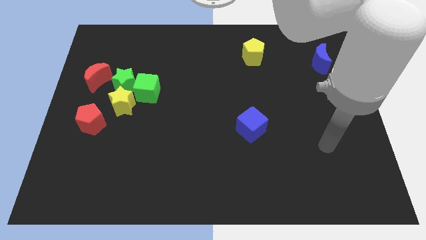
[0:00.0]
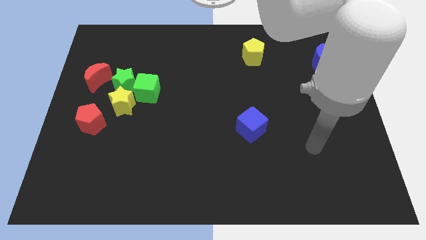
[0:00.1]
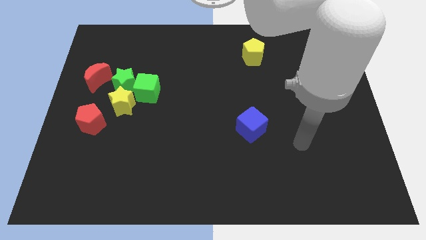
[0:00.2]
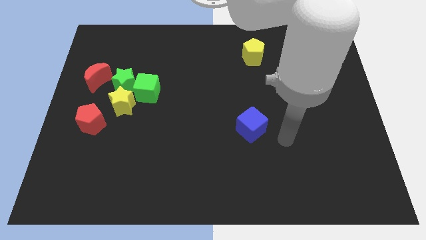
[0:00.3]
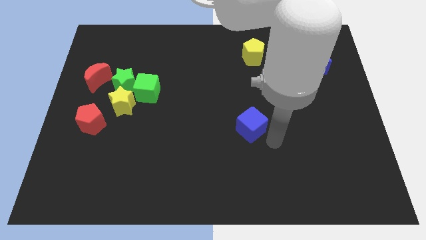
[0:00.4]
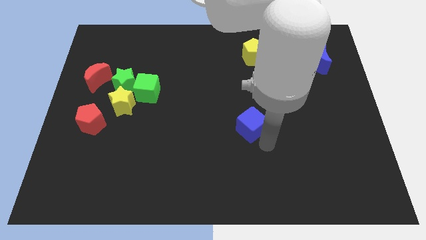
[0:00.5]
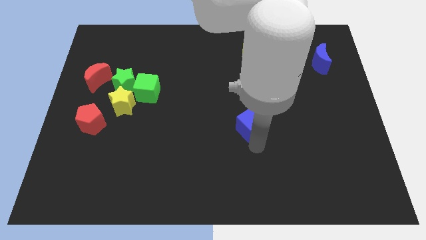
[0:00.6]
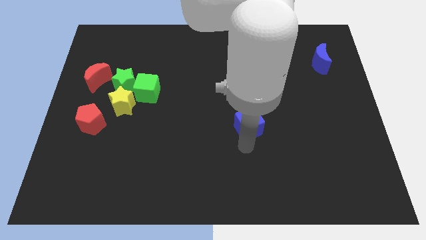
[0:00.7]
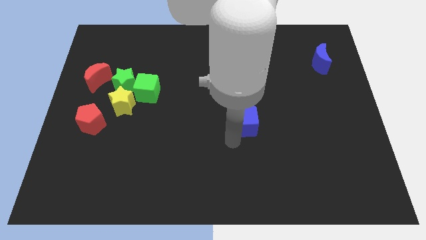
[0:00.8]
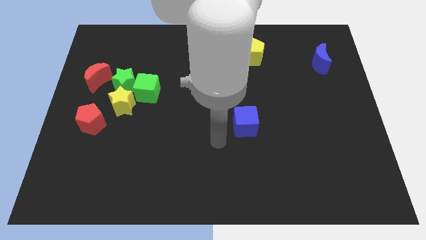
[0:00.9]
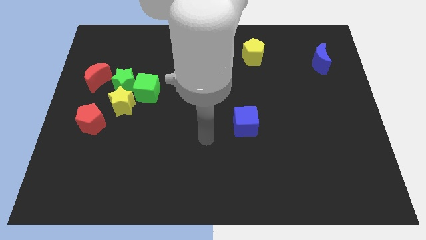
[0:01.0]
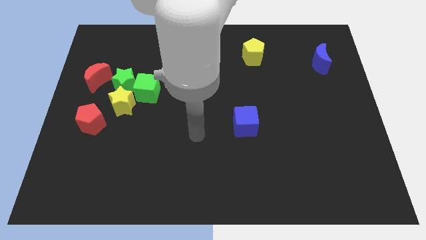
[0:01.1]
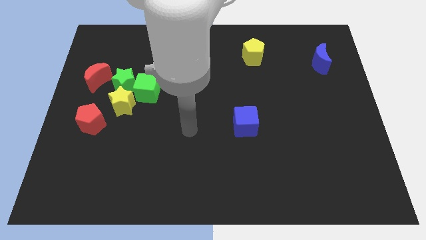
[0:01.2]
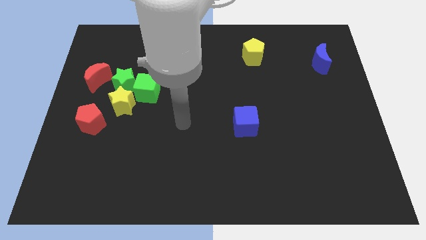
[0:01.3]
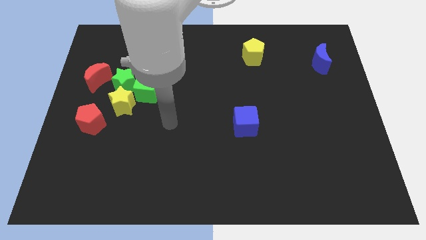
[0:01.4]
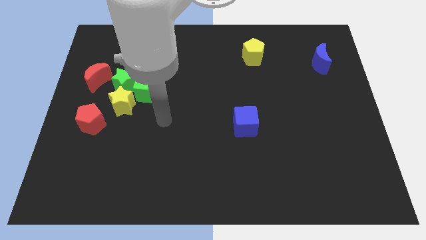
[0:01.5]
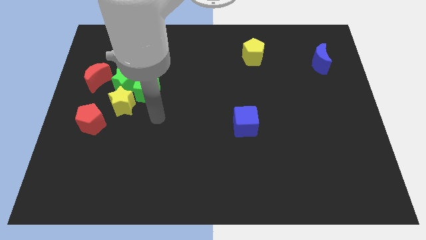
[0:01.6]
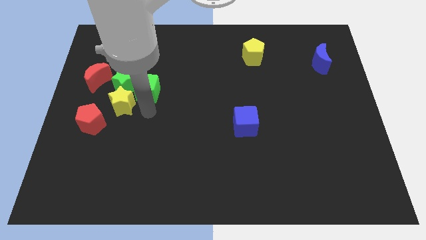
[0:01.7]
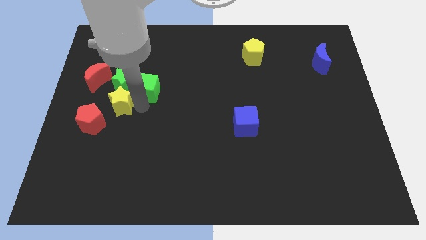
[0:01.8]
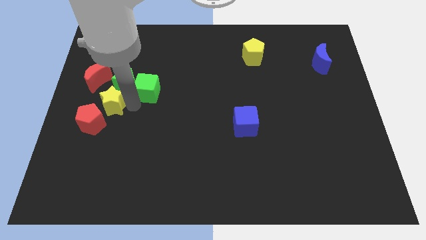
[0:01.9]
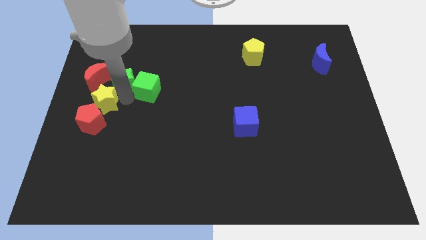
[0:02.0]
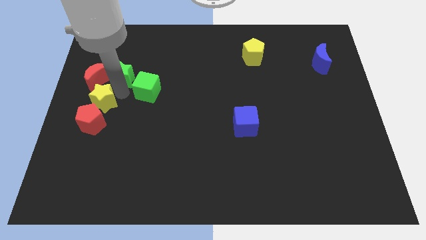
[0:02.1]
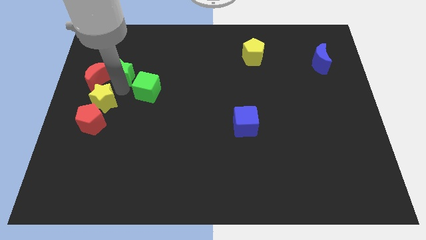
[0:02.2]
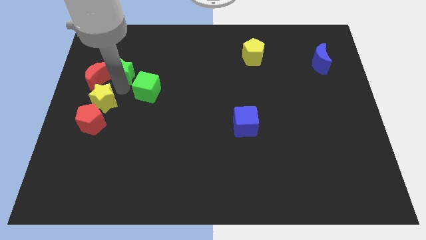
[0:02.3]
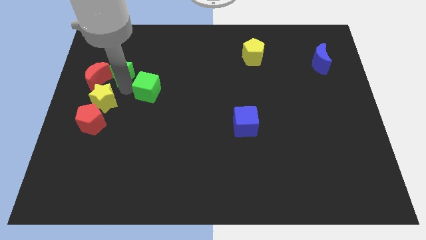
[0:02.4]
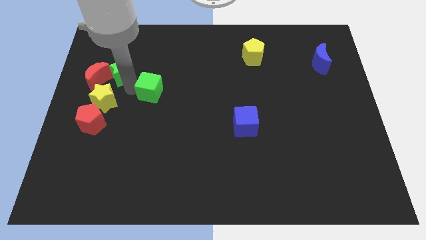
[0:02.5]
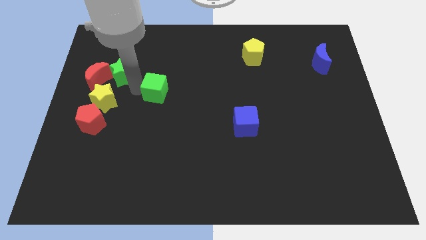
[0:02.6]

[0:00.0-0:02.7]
move the green cube away from the green star and yellow star

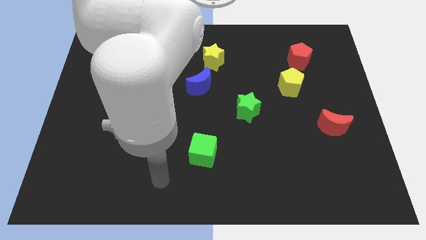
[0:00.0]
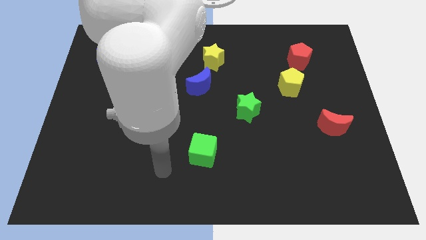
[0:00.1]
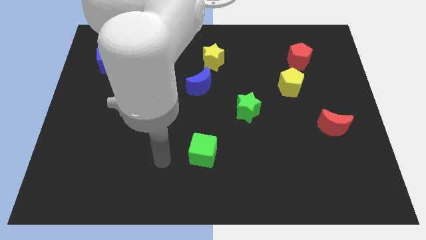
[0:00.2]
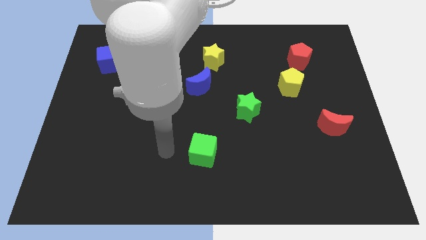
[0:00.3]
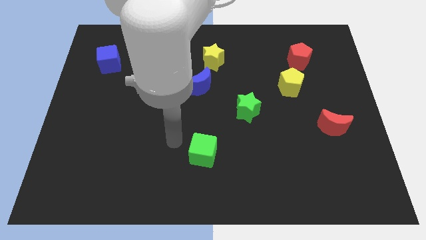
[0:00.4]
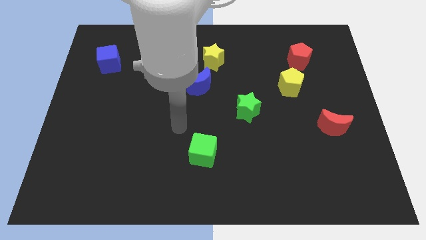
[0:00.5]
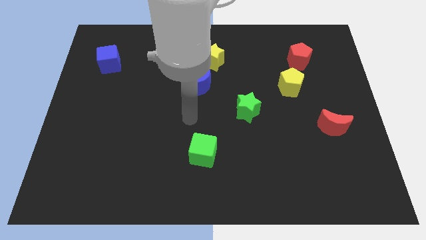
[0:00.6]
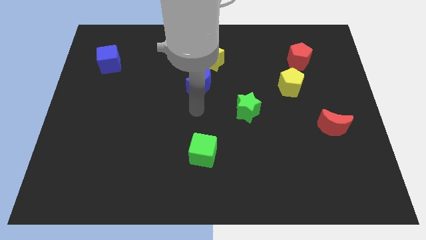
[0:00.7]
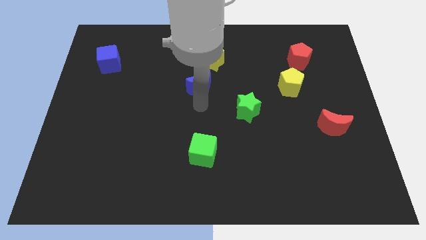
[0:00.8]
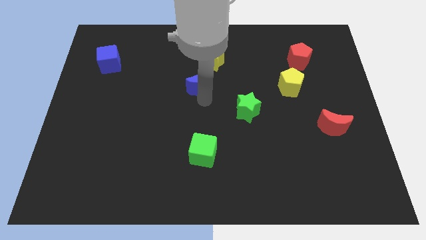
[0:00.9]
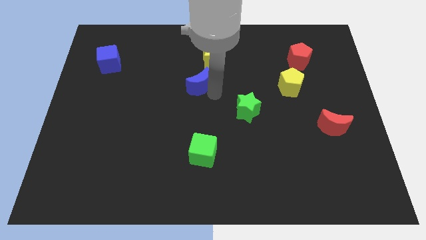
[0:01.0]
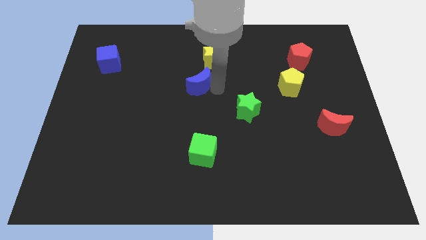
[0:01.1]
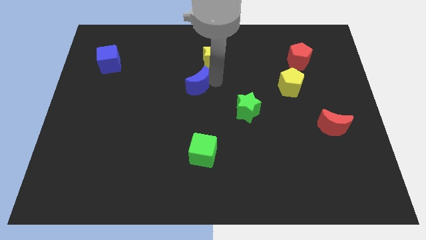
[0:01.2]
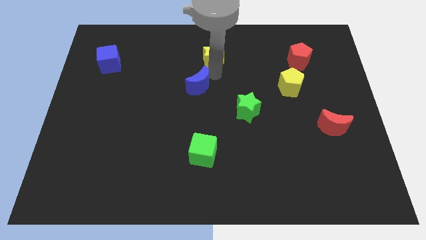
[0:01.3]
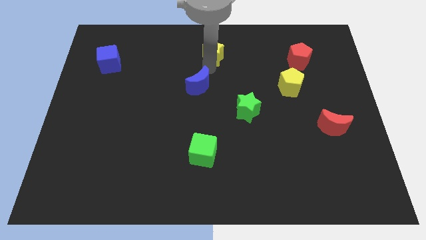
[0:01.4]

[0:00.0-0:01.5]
move the blue moon away from the yellow star

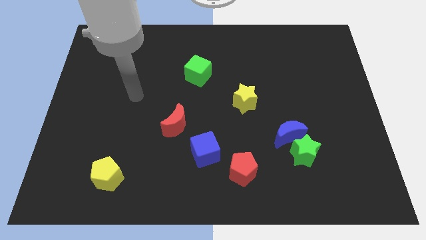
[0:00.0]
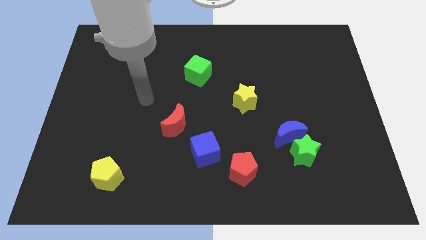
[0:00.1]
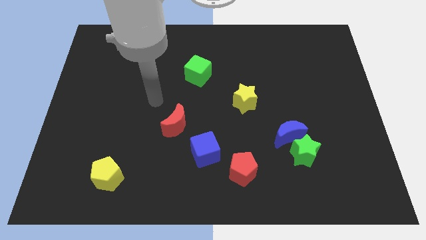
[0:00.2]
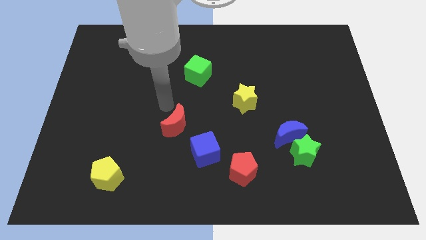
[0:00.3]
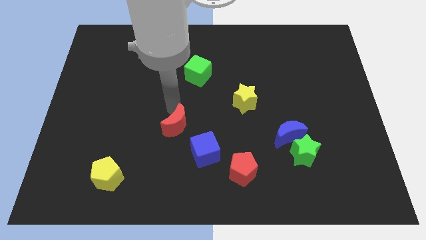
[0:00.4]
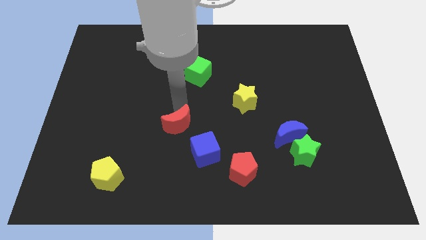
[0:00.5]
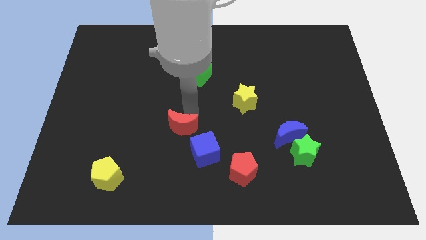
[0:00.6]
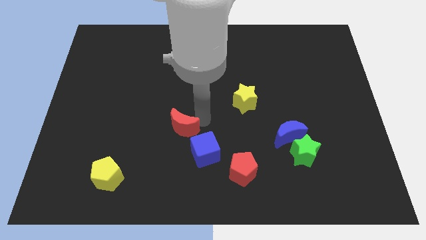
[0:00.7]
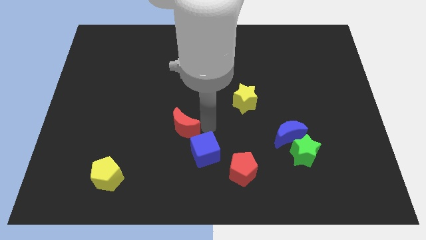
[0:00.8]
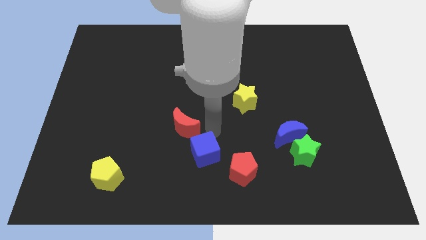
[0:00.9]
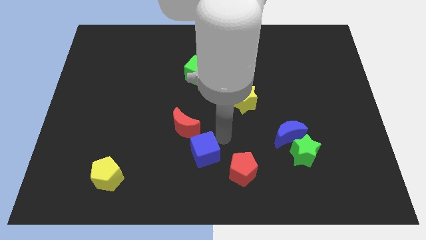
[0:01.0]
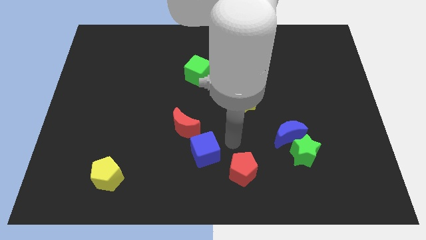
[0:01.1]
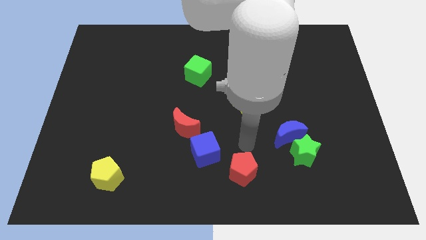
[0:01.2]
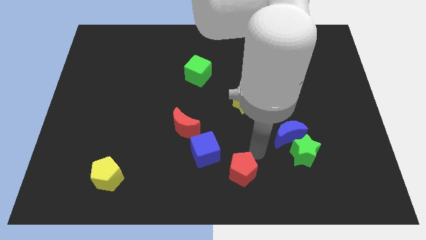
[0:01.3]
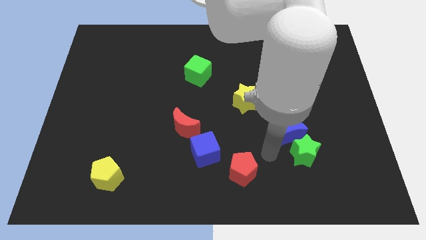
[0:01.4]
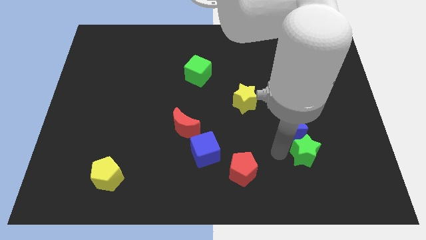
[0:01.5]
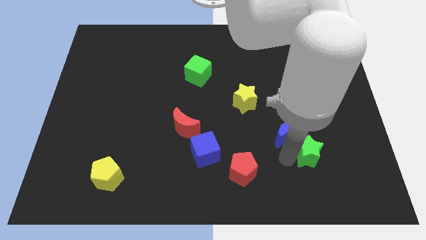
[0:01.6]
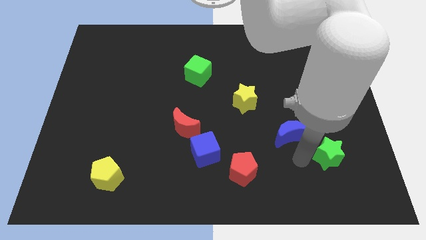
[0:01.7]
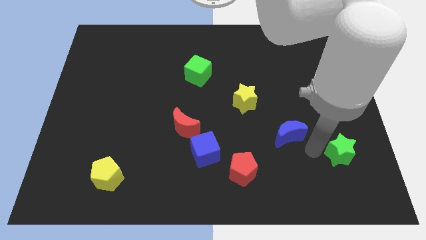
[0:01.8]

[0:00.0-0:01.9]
move the blue moon away from the green star

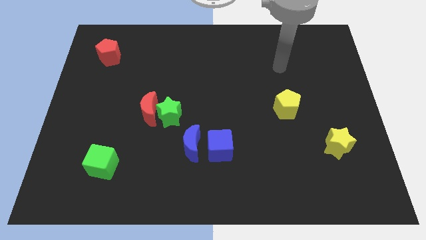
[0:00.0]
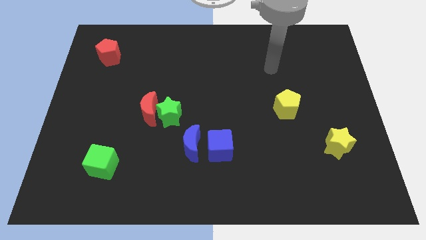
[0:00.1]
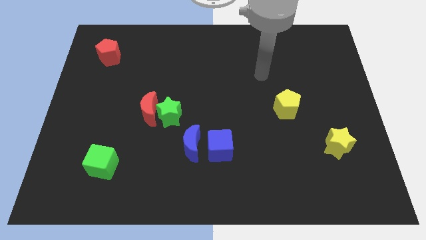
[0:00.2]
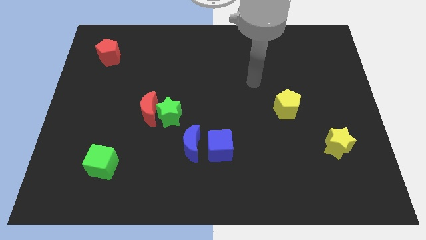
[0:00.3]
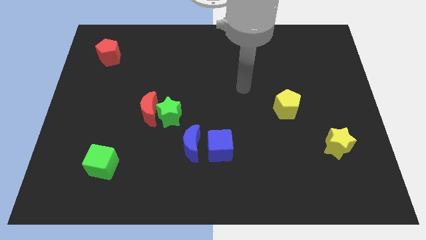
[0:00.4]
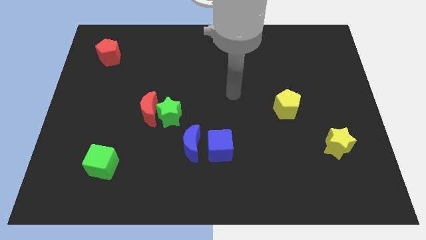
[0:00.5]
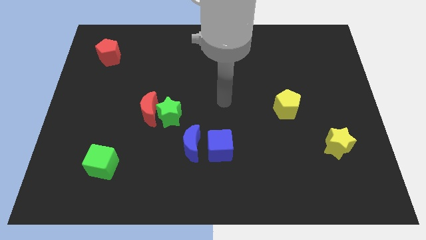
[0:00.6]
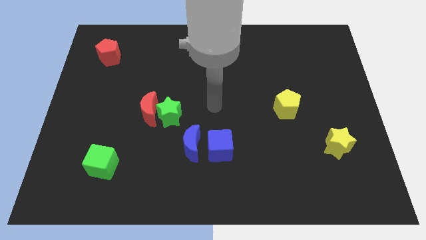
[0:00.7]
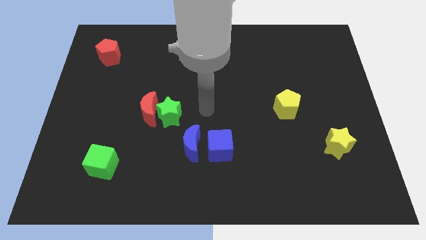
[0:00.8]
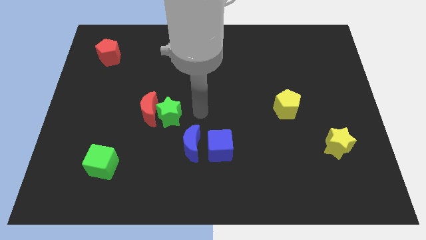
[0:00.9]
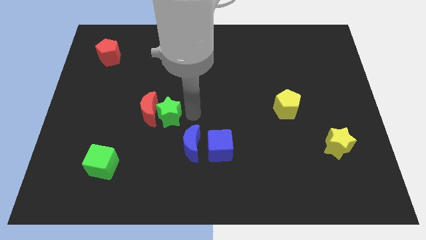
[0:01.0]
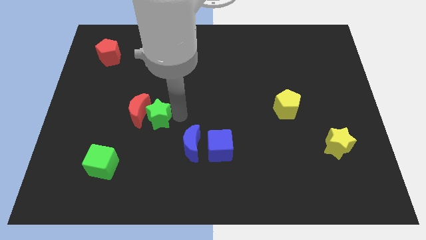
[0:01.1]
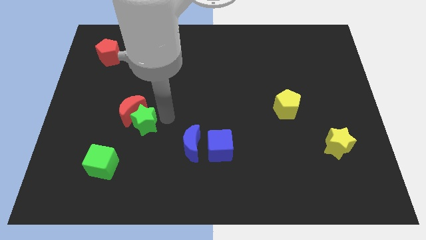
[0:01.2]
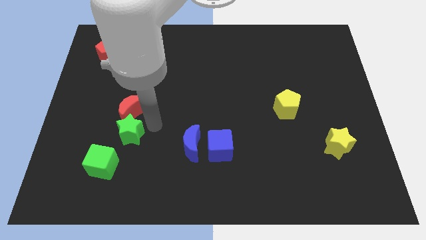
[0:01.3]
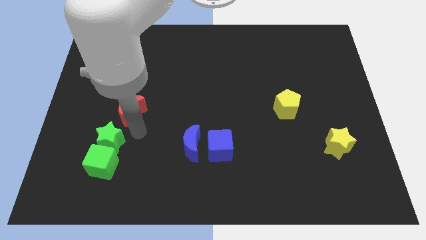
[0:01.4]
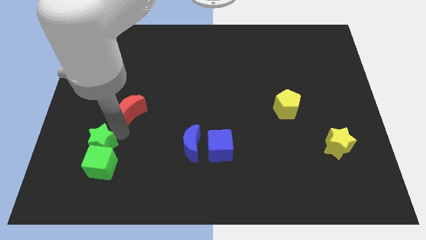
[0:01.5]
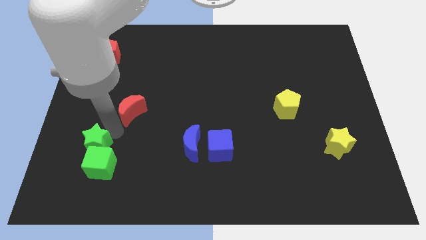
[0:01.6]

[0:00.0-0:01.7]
pull the red moon apart from the green star

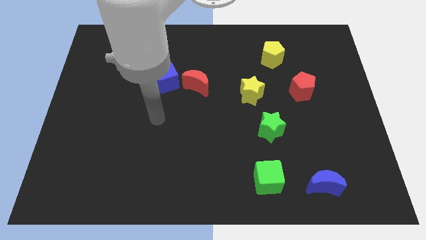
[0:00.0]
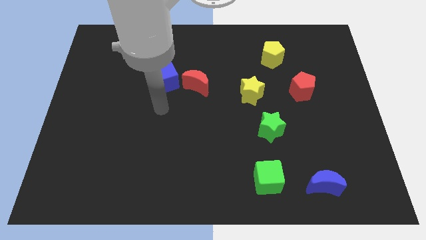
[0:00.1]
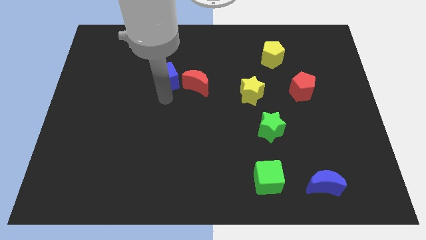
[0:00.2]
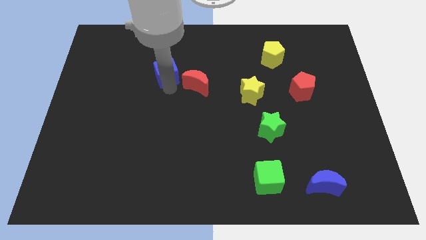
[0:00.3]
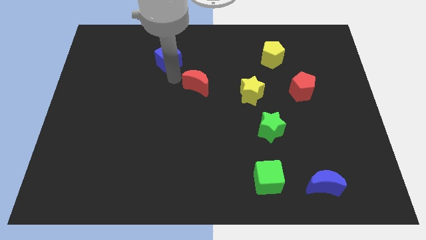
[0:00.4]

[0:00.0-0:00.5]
separate the red moon from the blue cube

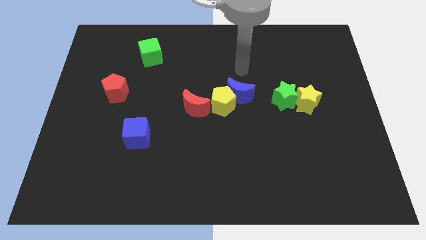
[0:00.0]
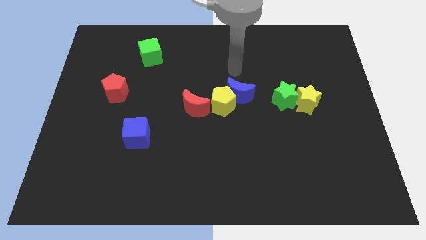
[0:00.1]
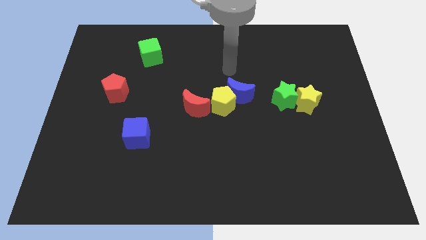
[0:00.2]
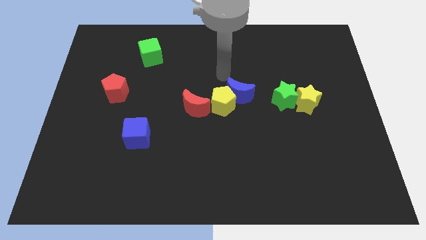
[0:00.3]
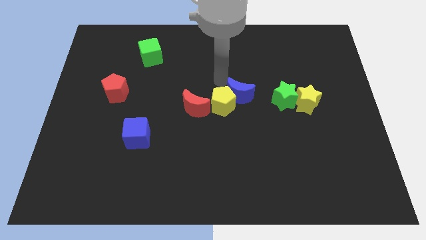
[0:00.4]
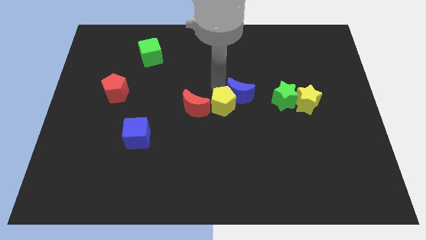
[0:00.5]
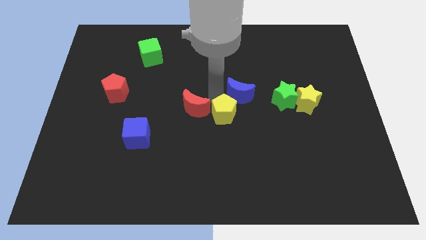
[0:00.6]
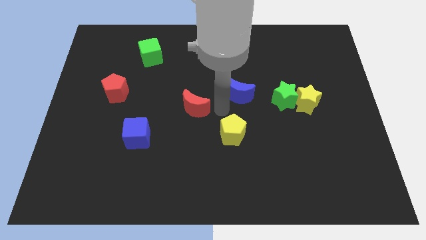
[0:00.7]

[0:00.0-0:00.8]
pull the blue moon apart from the yellow pentagon

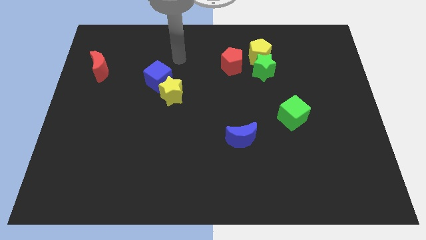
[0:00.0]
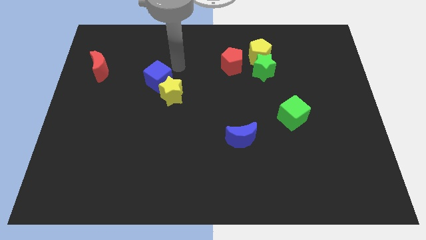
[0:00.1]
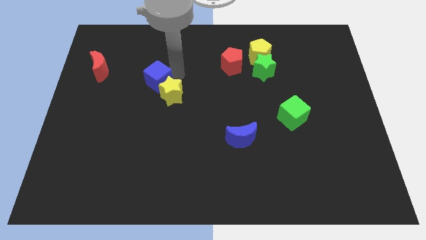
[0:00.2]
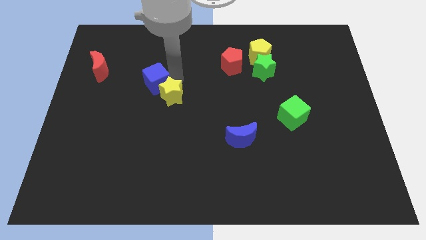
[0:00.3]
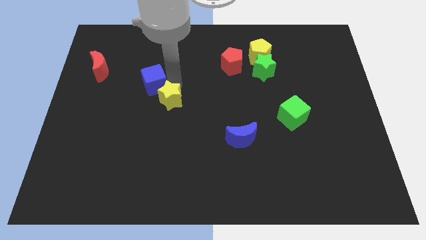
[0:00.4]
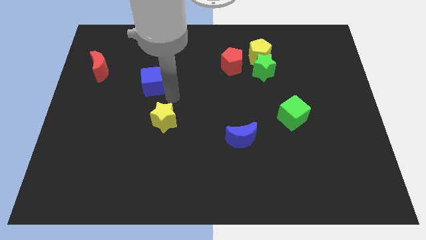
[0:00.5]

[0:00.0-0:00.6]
pull the blue cube apart from the yellow star
